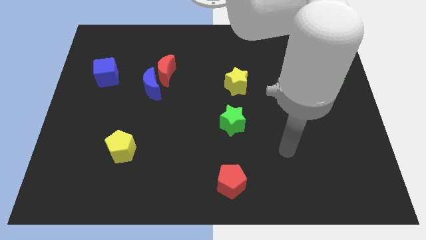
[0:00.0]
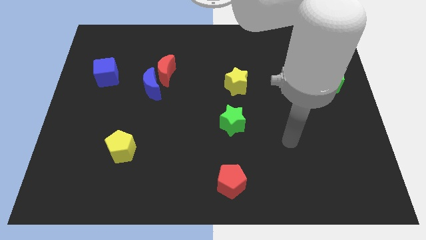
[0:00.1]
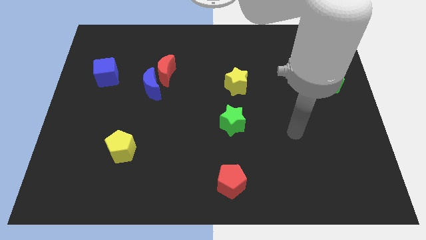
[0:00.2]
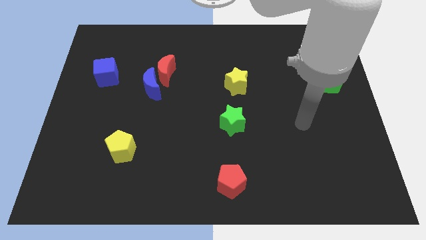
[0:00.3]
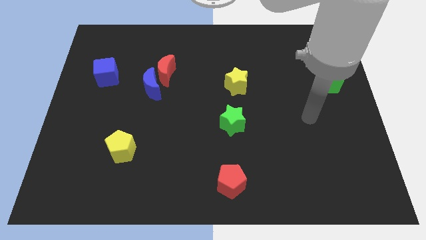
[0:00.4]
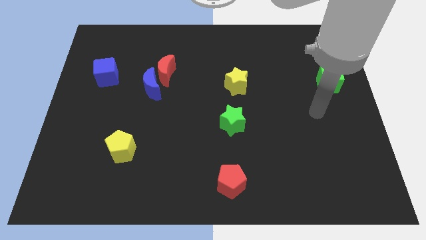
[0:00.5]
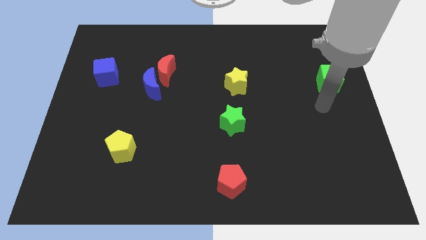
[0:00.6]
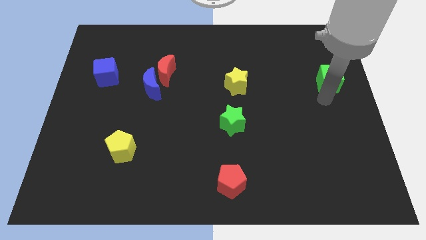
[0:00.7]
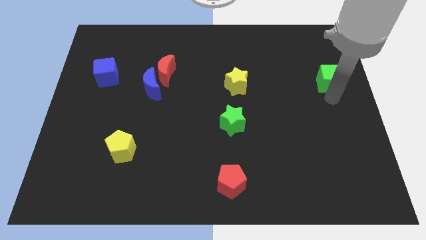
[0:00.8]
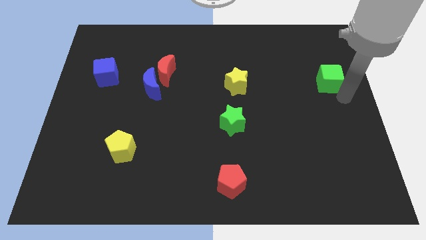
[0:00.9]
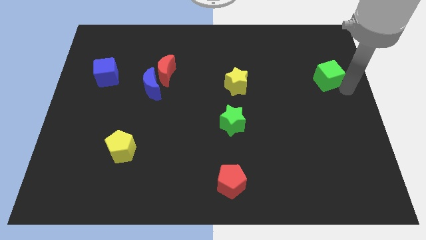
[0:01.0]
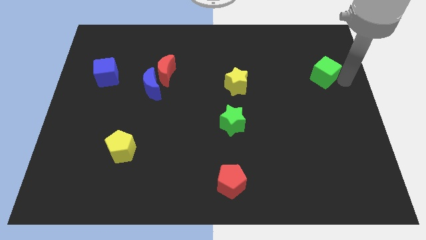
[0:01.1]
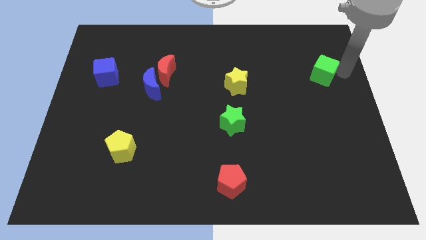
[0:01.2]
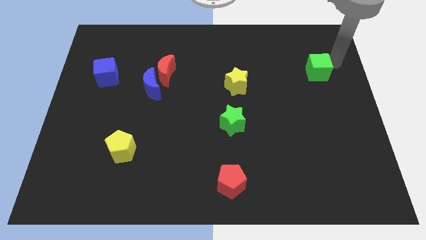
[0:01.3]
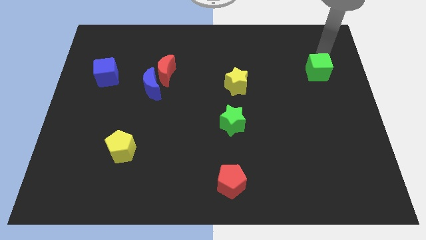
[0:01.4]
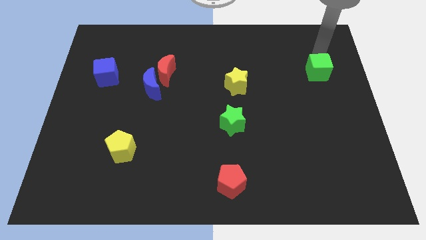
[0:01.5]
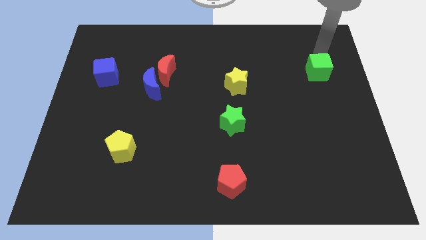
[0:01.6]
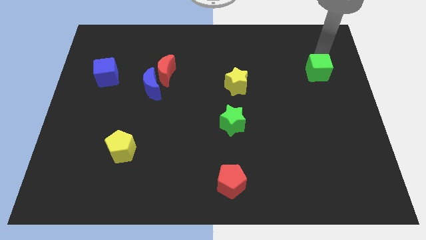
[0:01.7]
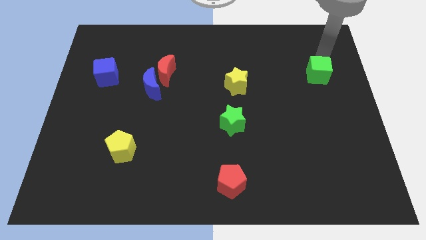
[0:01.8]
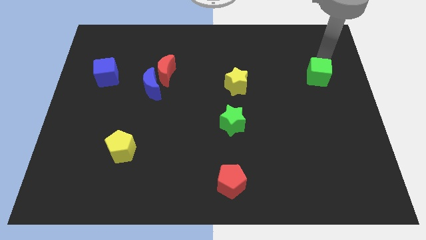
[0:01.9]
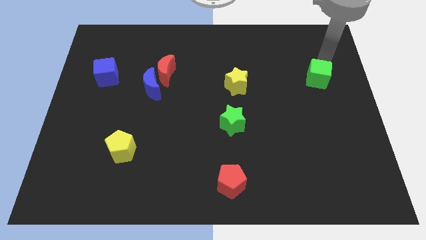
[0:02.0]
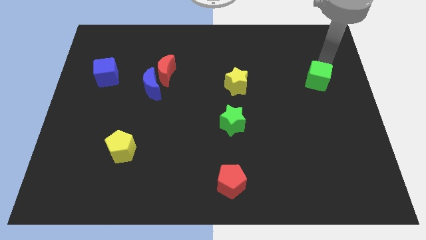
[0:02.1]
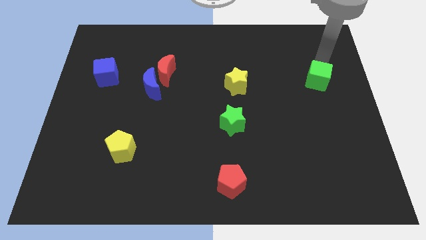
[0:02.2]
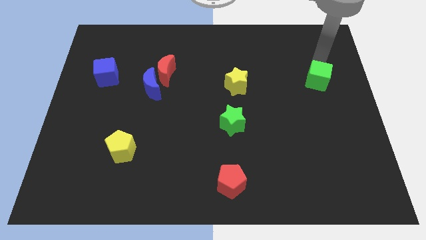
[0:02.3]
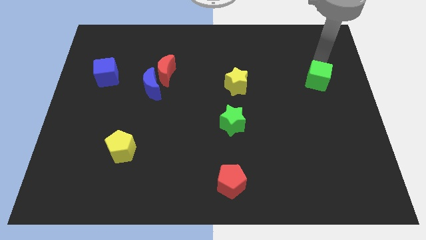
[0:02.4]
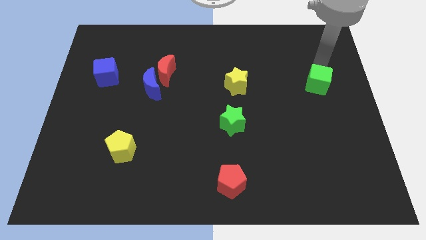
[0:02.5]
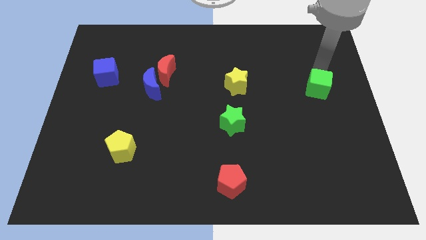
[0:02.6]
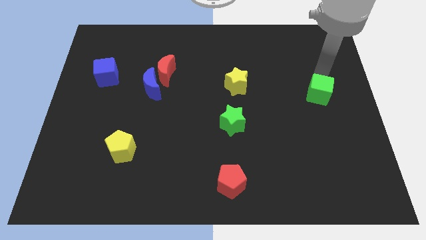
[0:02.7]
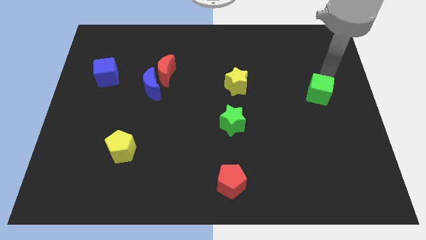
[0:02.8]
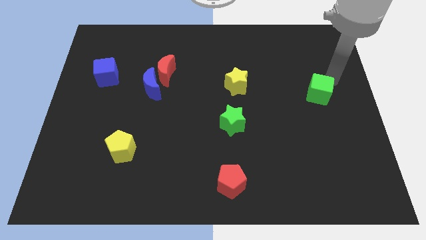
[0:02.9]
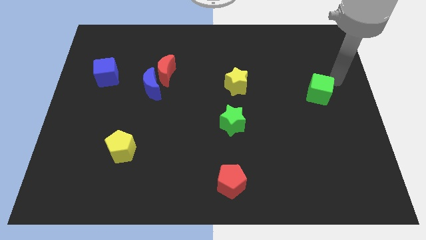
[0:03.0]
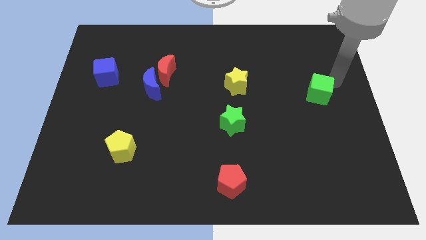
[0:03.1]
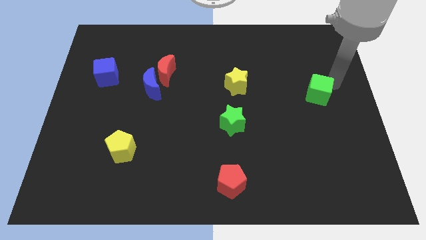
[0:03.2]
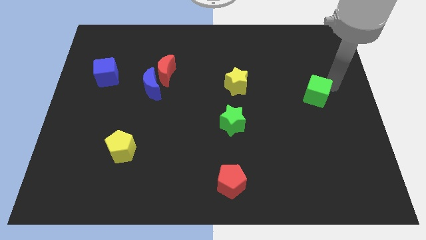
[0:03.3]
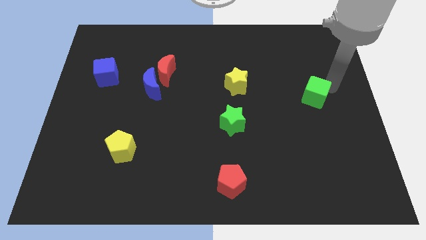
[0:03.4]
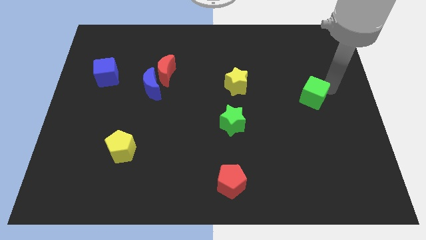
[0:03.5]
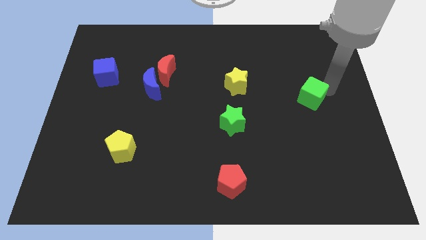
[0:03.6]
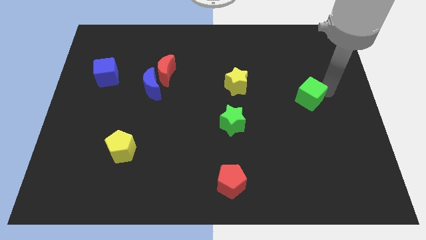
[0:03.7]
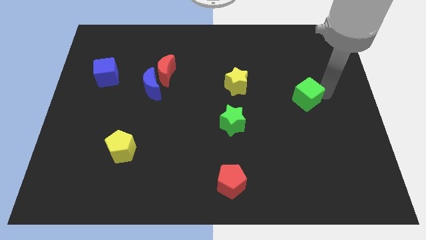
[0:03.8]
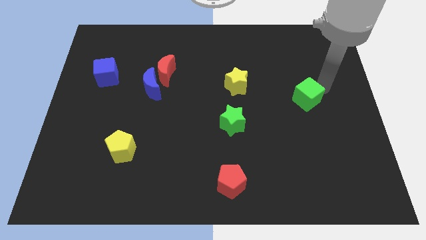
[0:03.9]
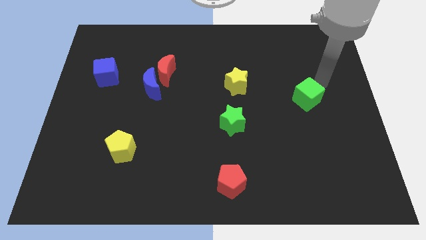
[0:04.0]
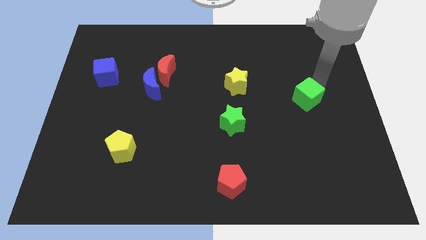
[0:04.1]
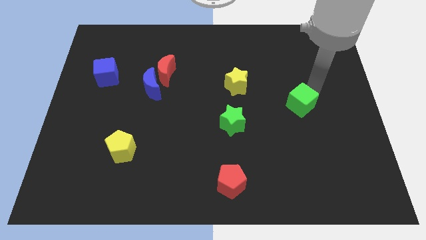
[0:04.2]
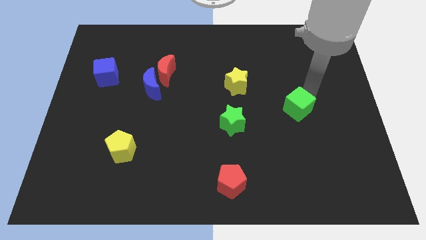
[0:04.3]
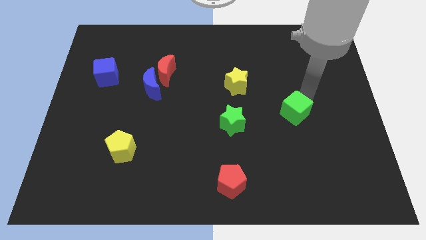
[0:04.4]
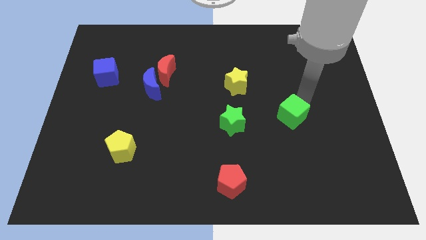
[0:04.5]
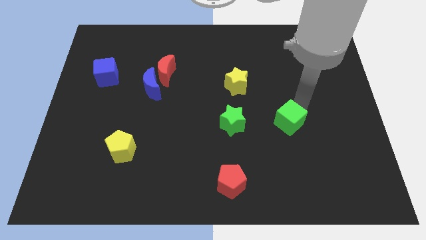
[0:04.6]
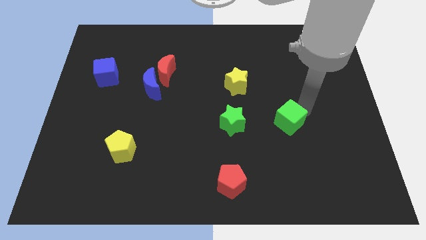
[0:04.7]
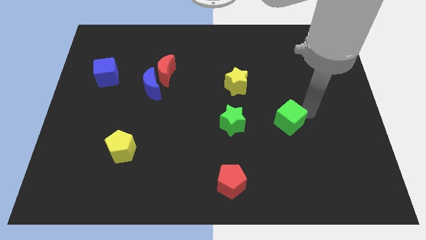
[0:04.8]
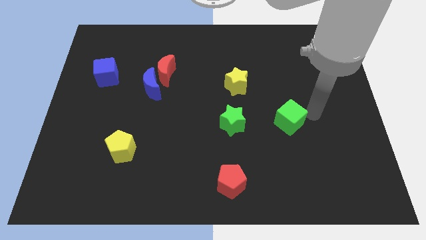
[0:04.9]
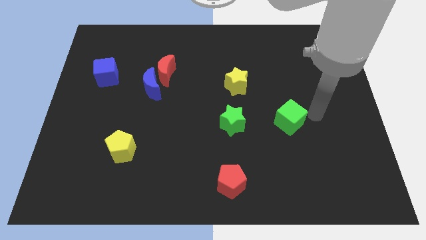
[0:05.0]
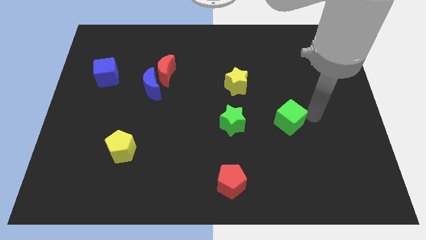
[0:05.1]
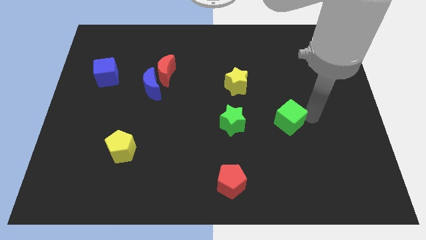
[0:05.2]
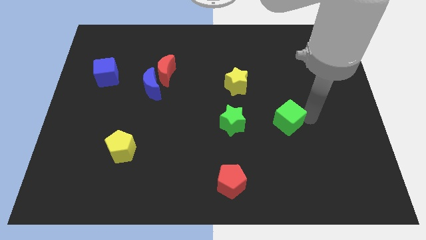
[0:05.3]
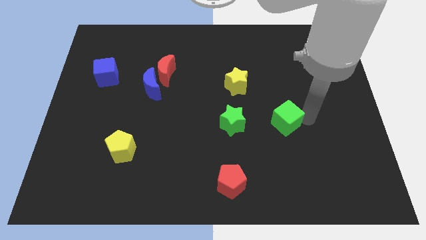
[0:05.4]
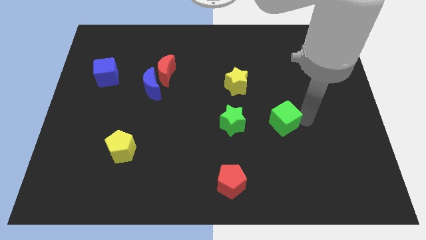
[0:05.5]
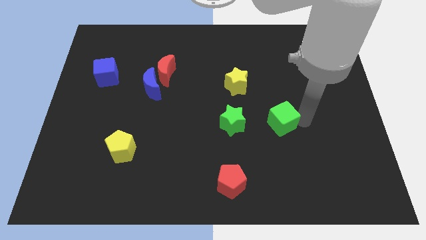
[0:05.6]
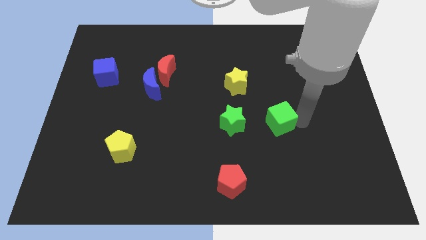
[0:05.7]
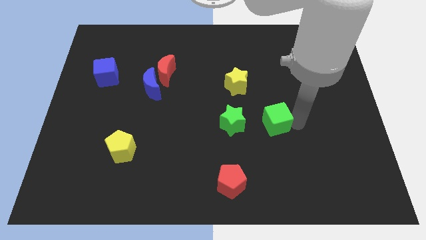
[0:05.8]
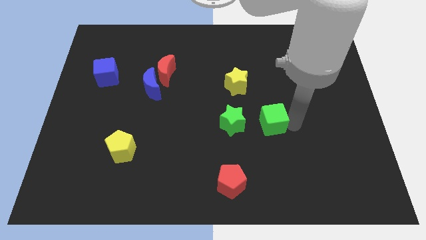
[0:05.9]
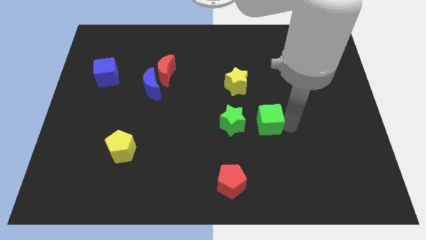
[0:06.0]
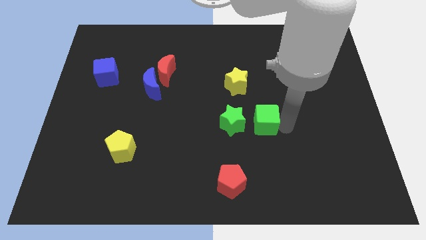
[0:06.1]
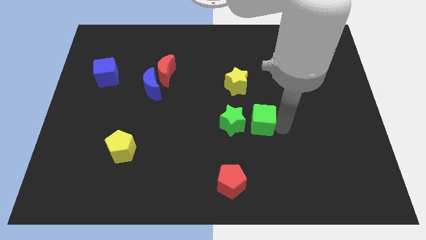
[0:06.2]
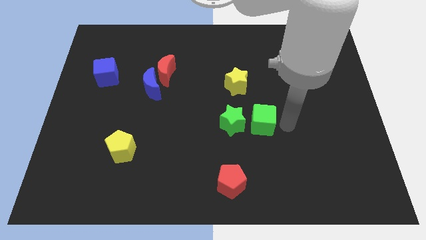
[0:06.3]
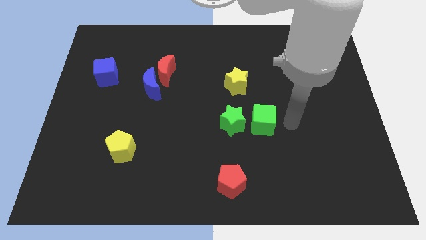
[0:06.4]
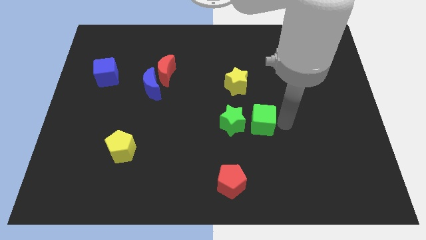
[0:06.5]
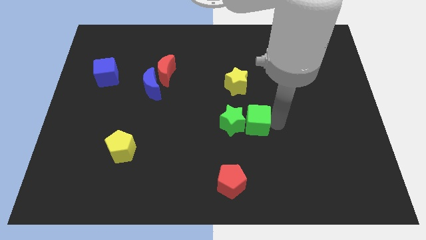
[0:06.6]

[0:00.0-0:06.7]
put the green cube towards the green star

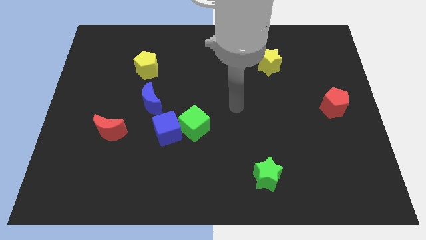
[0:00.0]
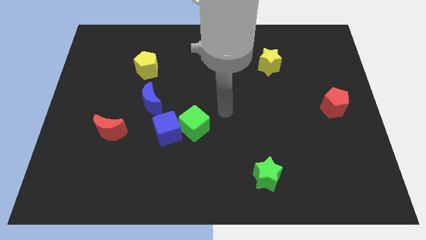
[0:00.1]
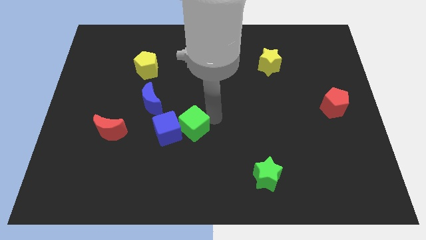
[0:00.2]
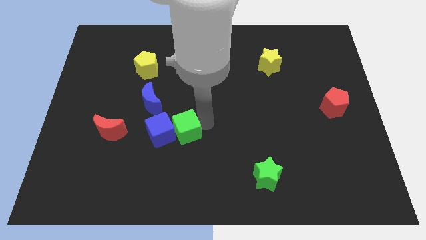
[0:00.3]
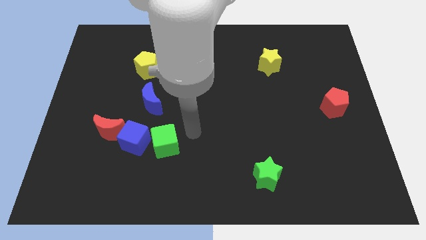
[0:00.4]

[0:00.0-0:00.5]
move the blue cube next to the red moon

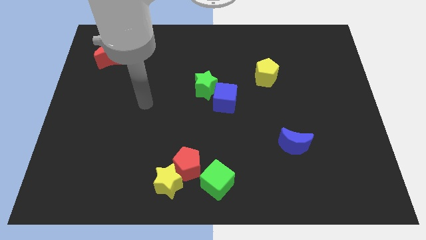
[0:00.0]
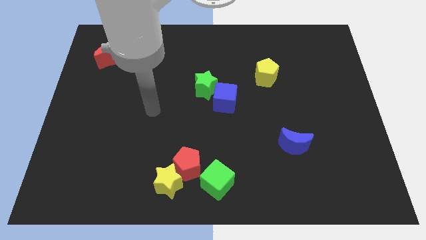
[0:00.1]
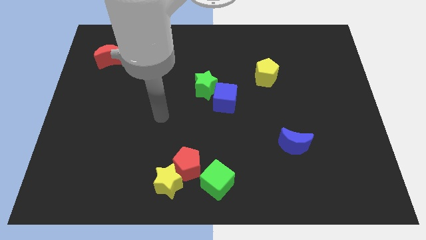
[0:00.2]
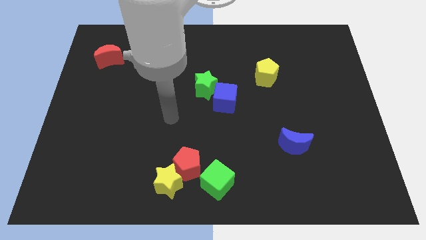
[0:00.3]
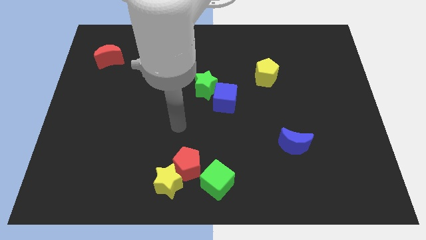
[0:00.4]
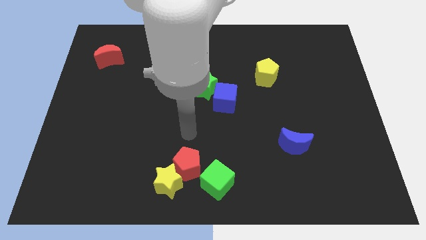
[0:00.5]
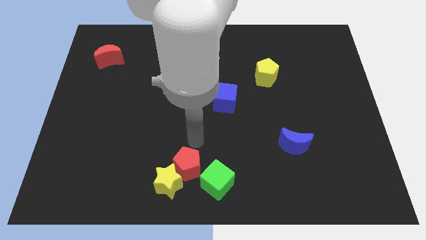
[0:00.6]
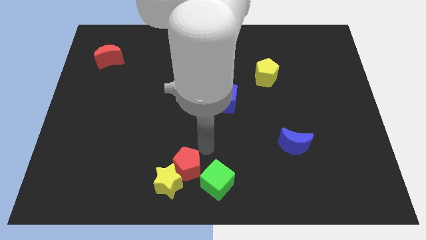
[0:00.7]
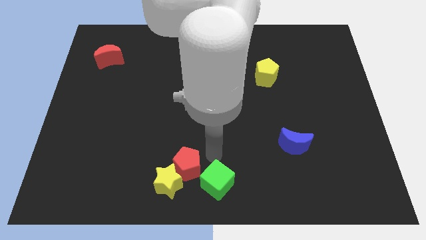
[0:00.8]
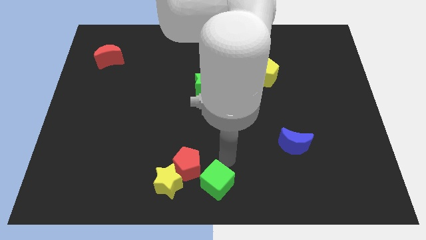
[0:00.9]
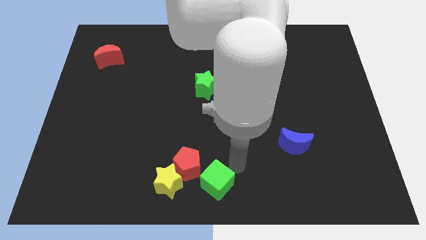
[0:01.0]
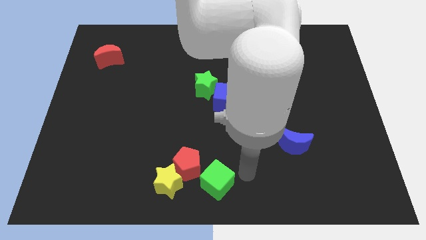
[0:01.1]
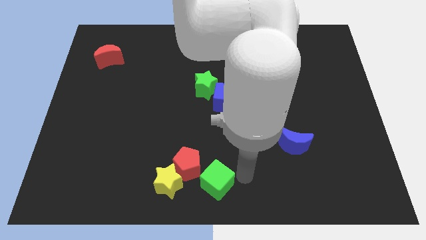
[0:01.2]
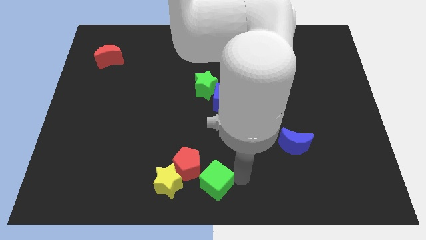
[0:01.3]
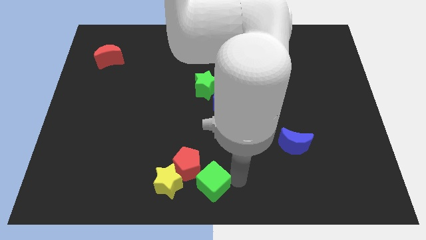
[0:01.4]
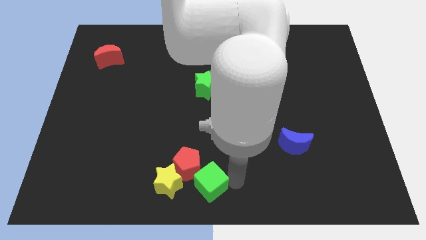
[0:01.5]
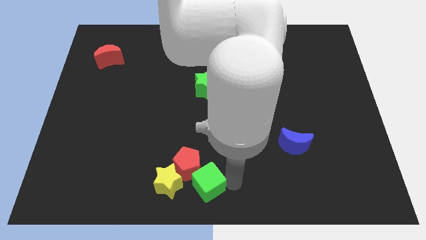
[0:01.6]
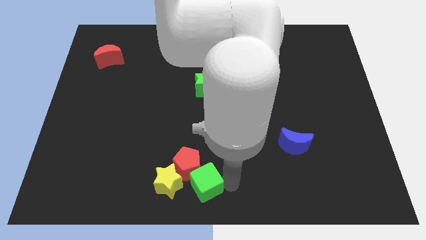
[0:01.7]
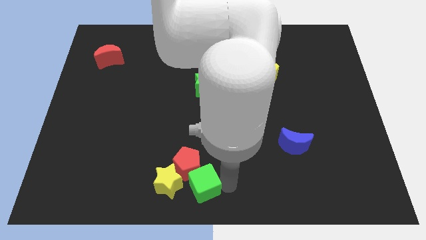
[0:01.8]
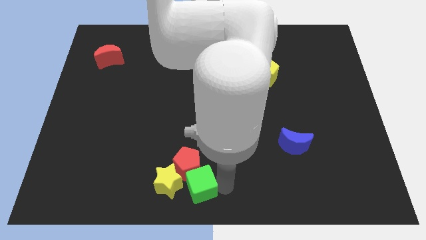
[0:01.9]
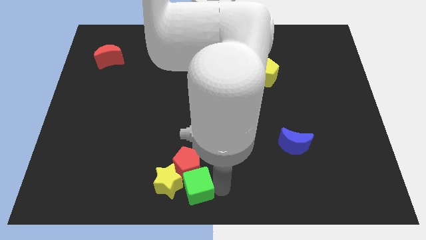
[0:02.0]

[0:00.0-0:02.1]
put the green cube towards the yellow star
